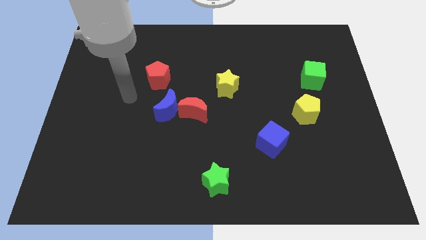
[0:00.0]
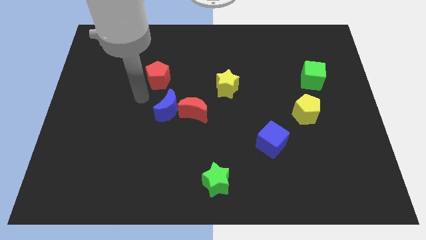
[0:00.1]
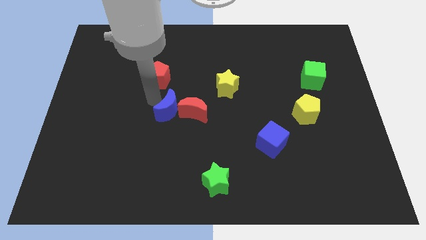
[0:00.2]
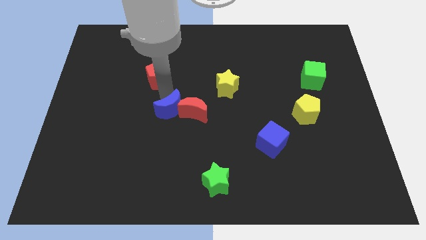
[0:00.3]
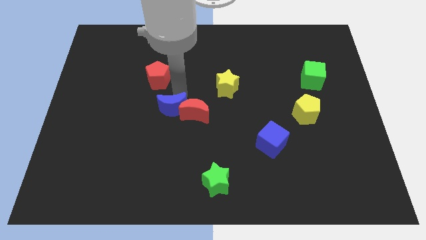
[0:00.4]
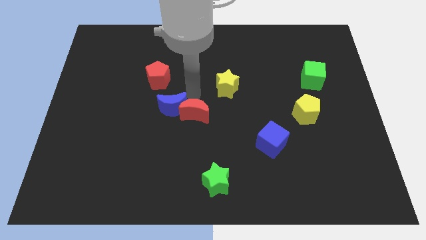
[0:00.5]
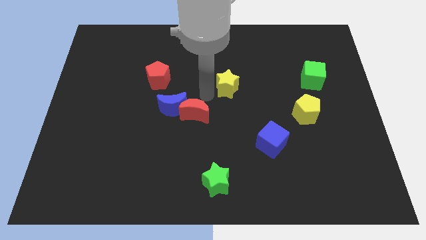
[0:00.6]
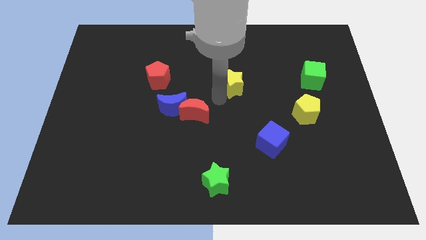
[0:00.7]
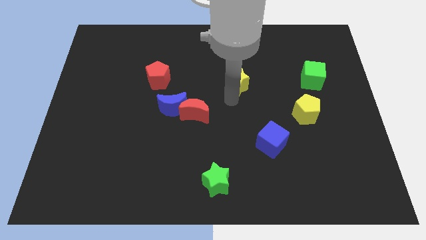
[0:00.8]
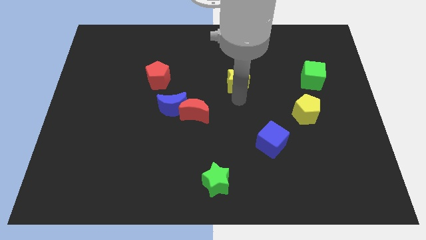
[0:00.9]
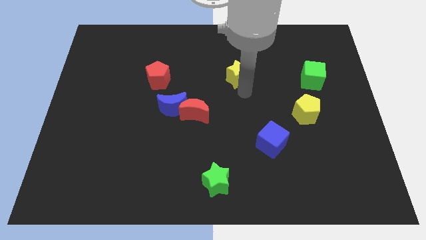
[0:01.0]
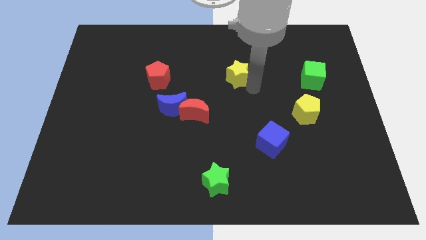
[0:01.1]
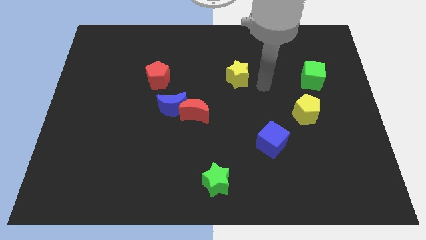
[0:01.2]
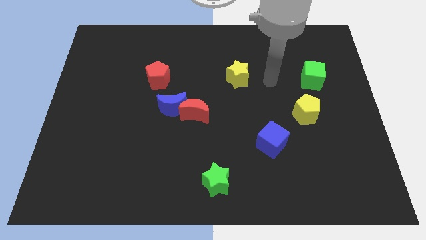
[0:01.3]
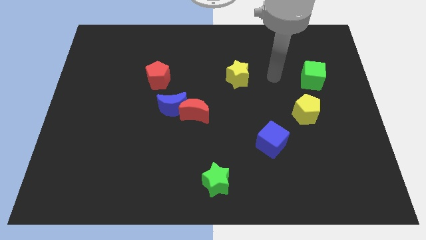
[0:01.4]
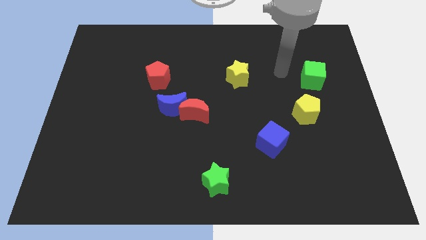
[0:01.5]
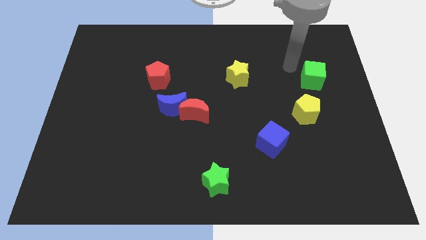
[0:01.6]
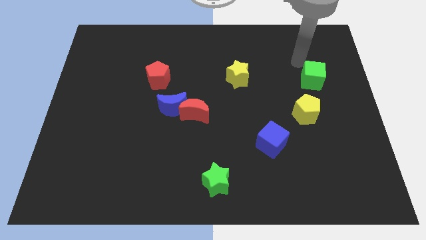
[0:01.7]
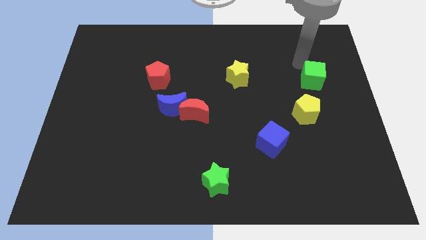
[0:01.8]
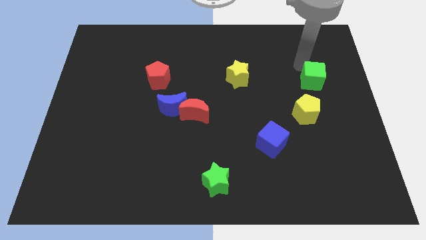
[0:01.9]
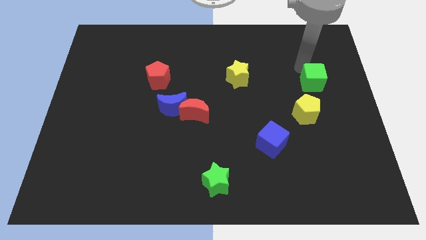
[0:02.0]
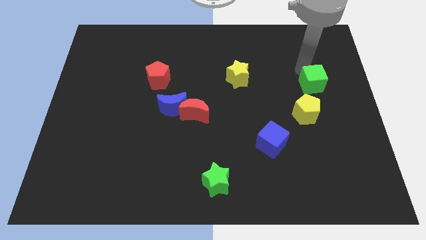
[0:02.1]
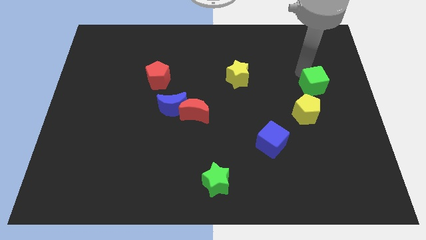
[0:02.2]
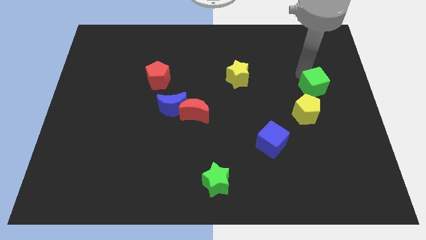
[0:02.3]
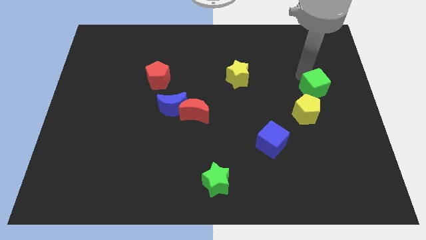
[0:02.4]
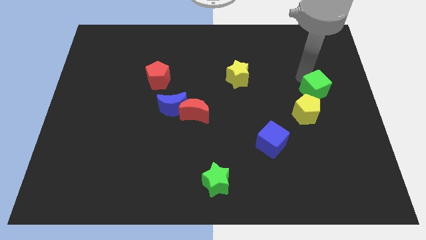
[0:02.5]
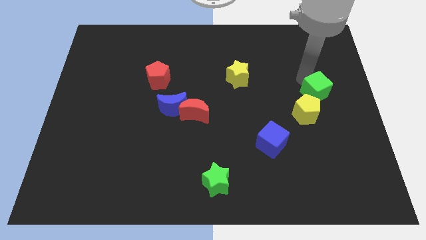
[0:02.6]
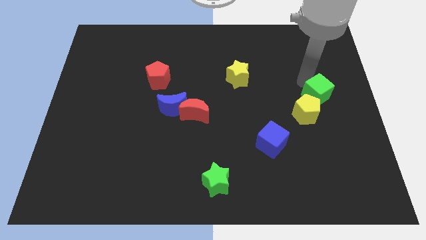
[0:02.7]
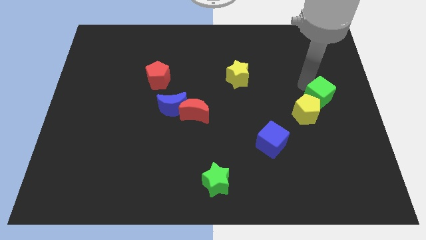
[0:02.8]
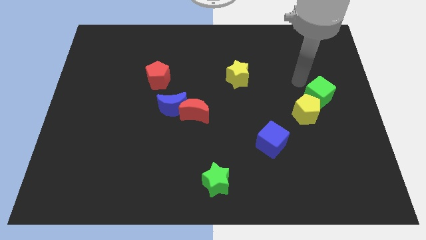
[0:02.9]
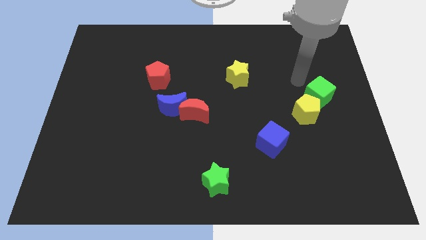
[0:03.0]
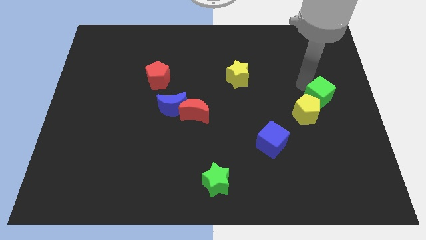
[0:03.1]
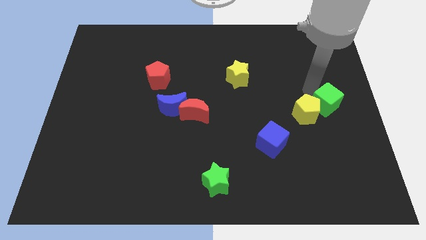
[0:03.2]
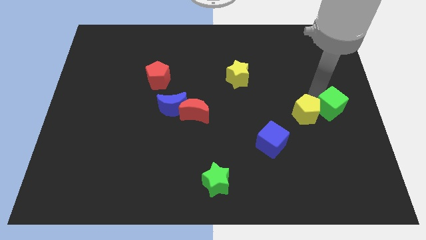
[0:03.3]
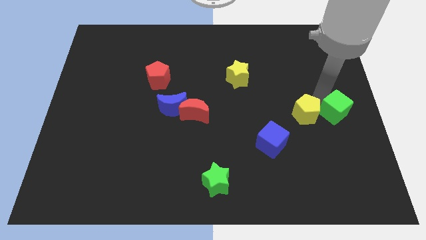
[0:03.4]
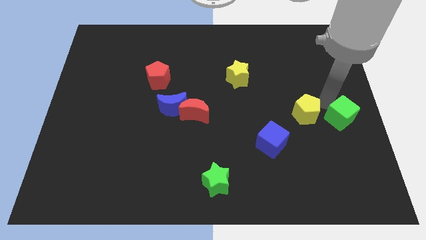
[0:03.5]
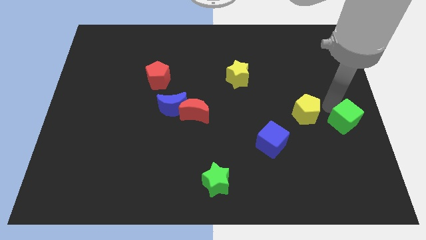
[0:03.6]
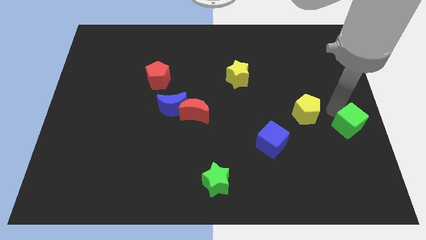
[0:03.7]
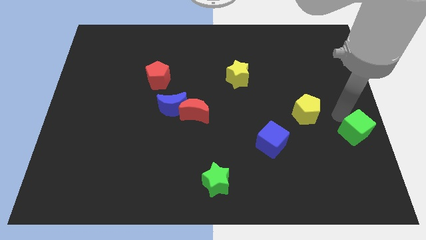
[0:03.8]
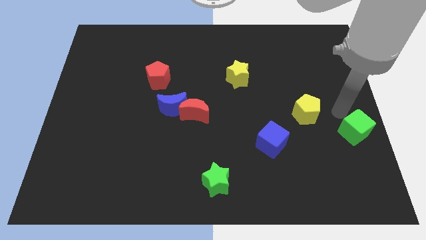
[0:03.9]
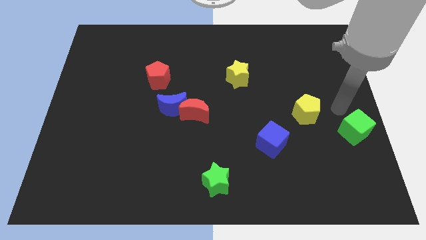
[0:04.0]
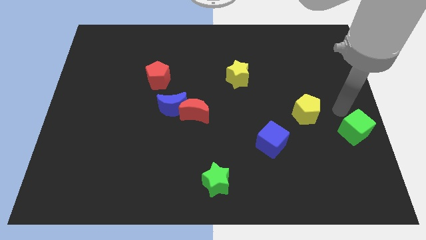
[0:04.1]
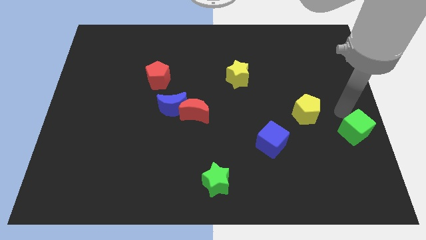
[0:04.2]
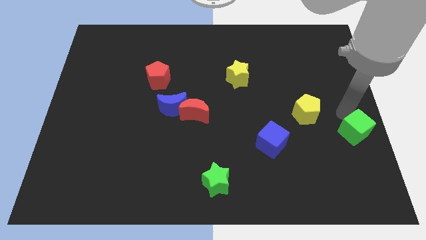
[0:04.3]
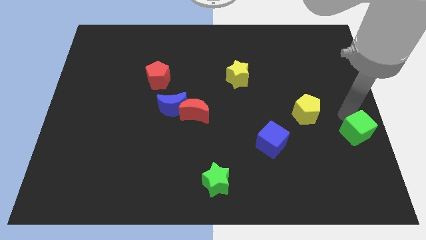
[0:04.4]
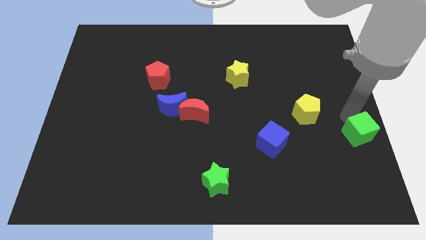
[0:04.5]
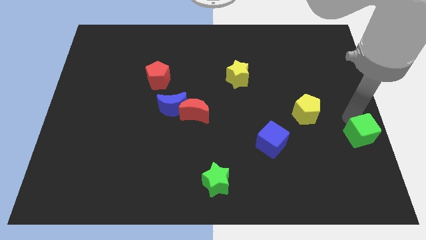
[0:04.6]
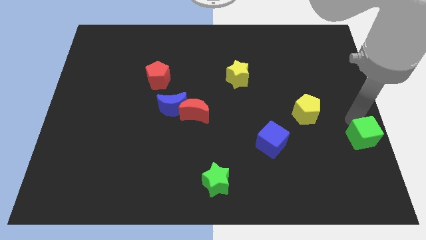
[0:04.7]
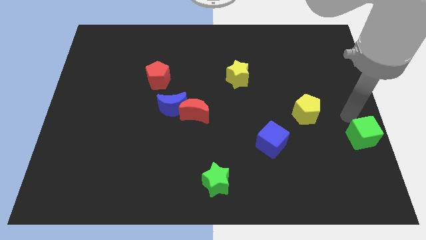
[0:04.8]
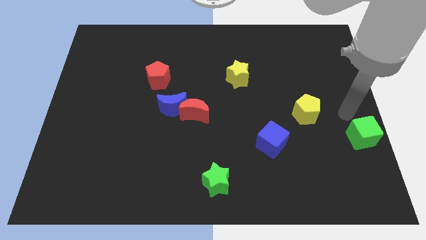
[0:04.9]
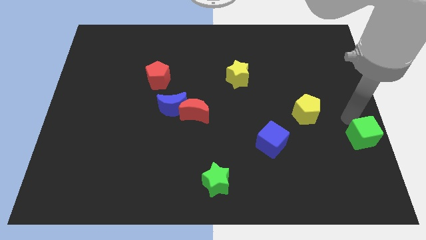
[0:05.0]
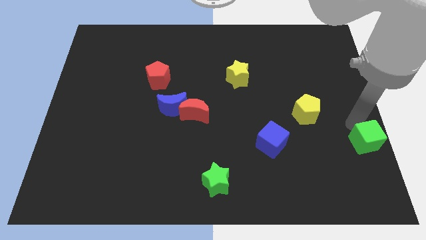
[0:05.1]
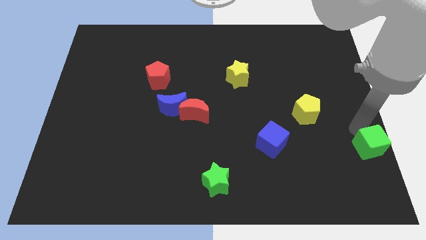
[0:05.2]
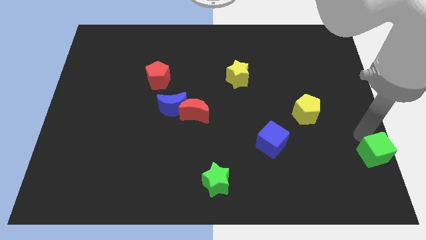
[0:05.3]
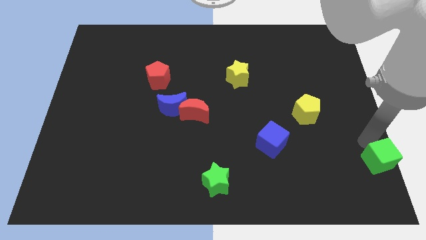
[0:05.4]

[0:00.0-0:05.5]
push the green cube to the lower right corner

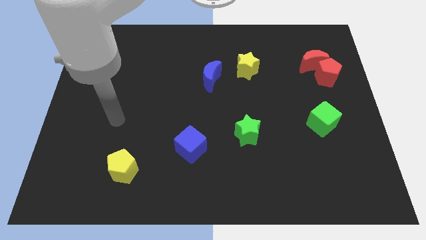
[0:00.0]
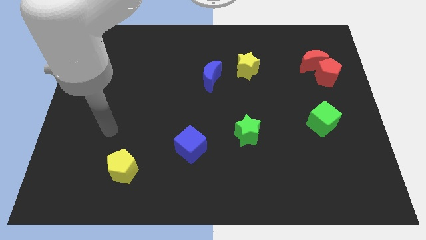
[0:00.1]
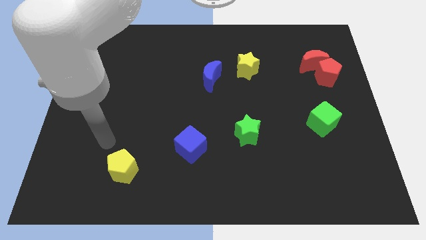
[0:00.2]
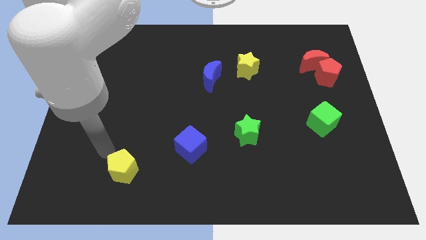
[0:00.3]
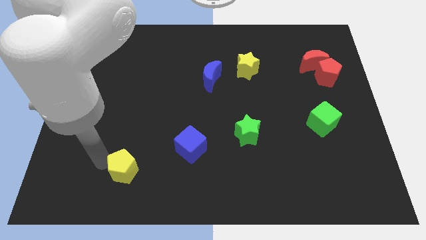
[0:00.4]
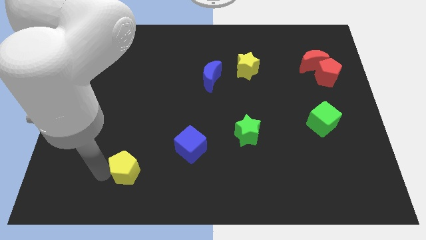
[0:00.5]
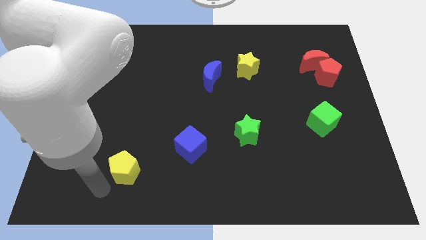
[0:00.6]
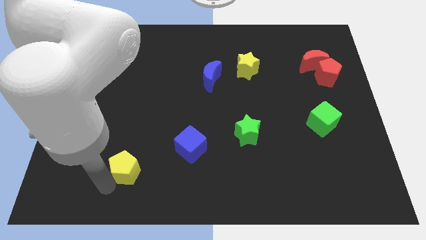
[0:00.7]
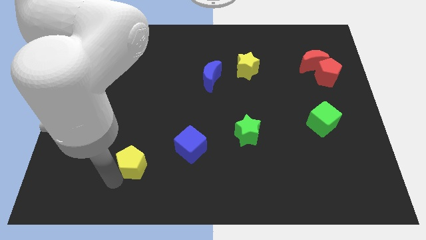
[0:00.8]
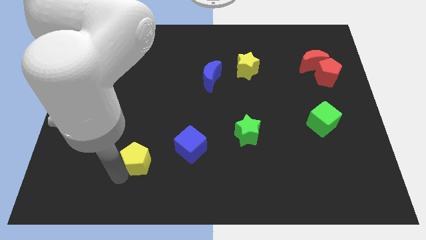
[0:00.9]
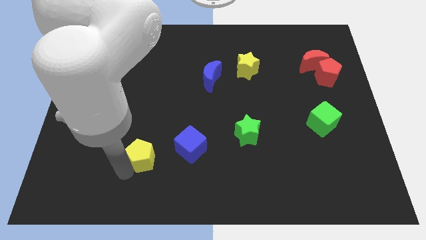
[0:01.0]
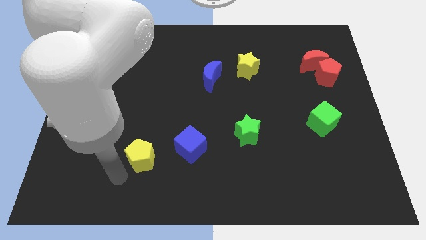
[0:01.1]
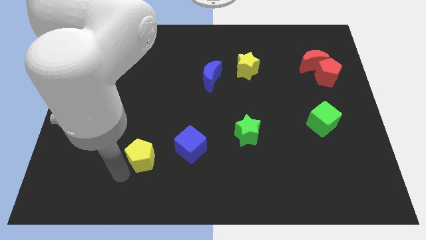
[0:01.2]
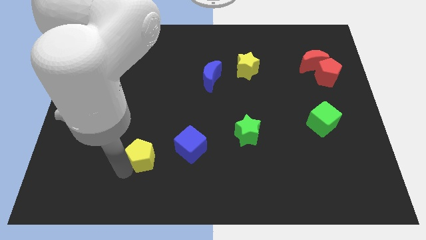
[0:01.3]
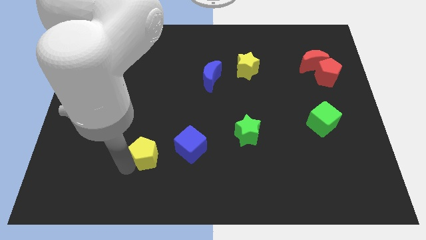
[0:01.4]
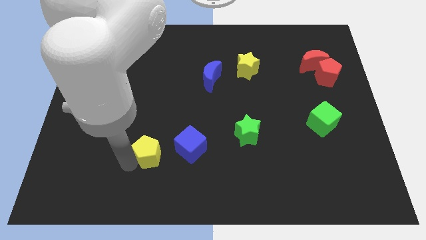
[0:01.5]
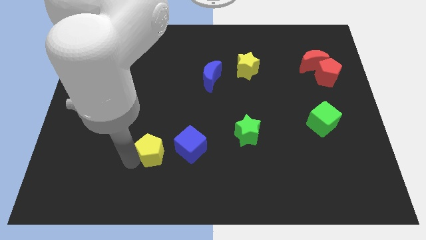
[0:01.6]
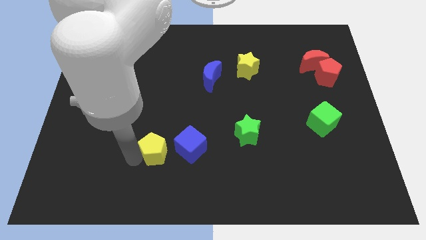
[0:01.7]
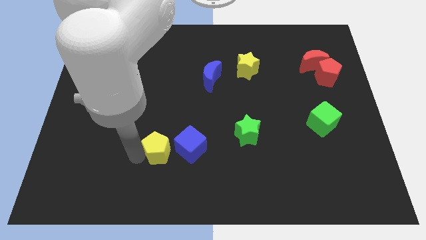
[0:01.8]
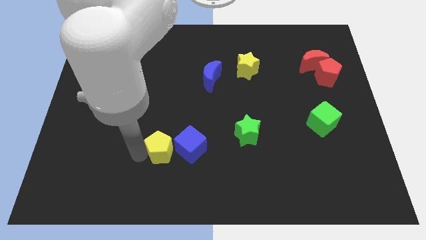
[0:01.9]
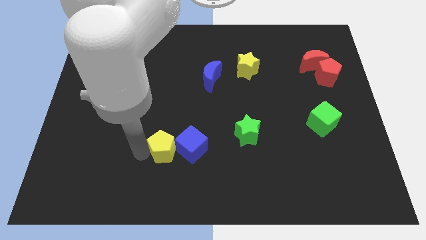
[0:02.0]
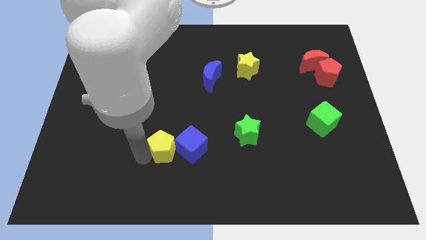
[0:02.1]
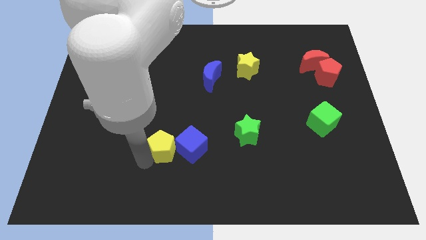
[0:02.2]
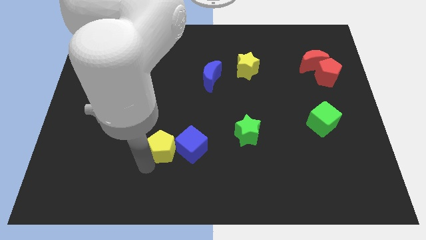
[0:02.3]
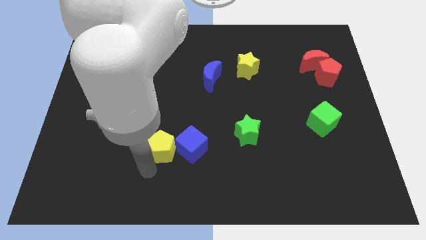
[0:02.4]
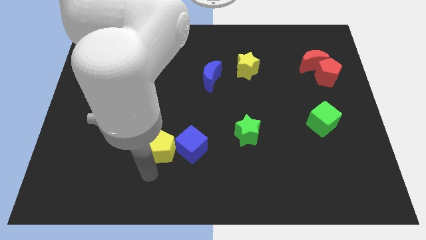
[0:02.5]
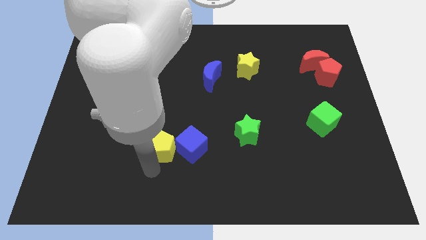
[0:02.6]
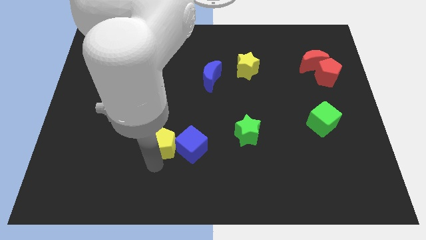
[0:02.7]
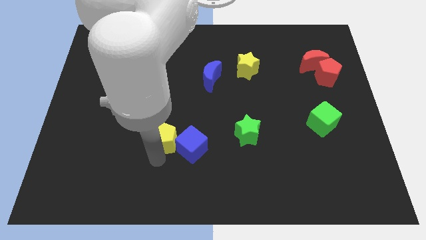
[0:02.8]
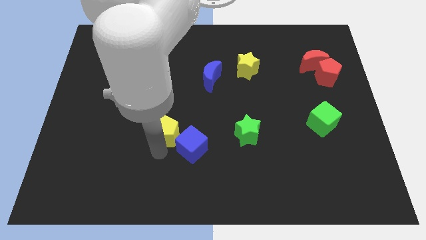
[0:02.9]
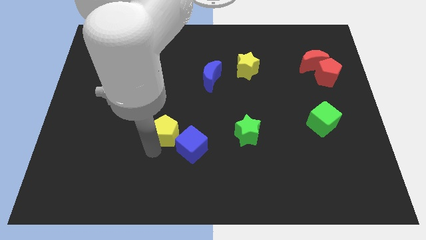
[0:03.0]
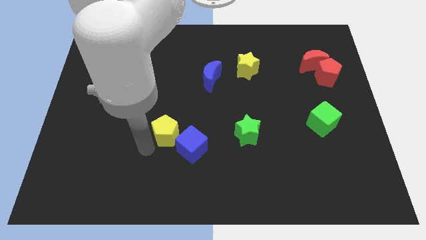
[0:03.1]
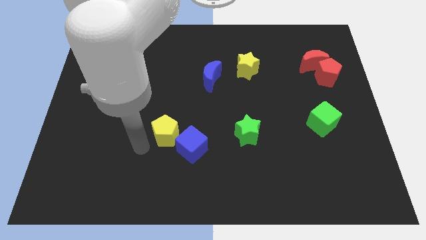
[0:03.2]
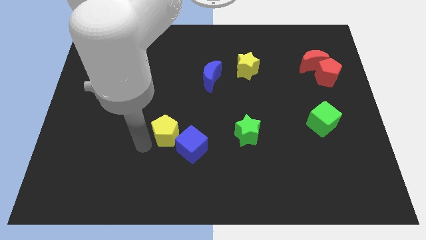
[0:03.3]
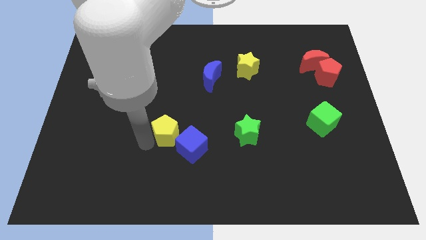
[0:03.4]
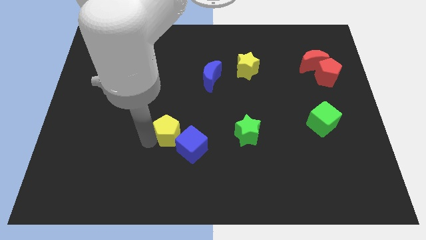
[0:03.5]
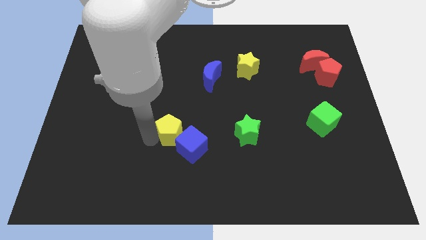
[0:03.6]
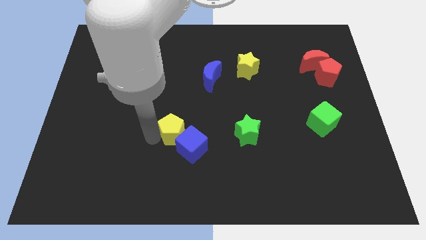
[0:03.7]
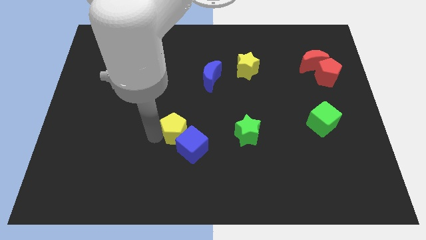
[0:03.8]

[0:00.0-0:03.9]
push the yellow pentagon to the middle
